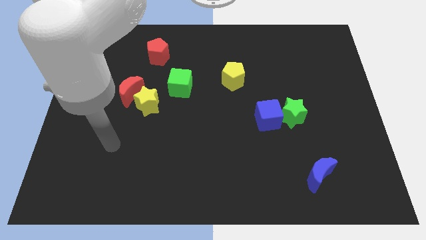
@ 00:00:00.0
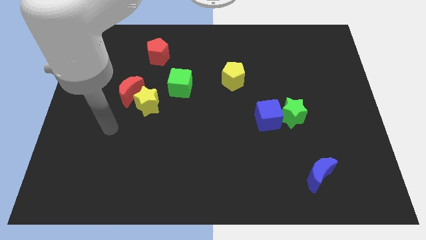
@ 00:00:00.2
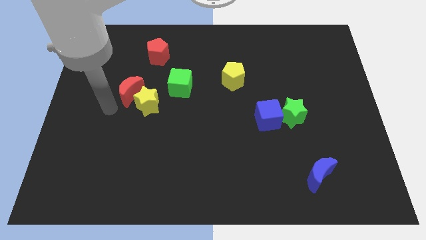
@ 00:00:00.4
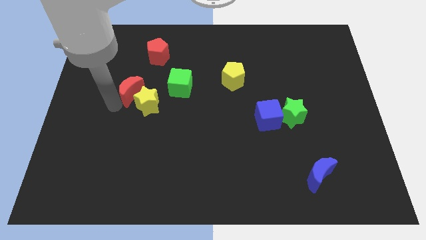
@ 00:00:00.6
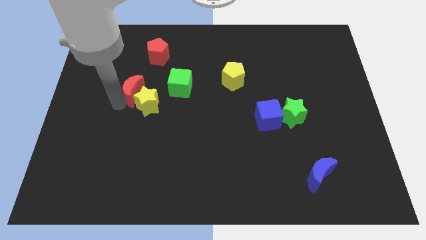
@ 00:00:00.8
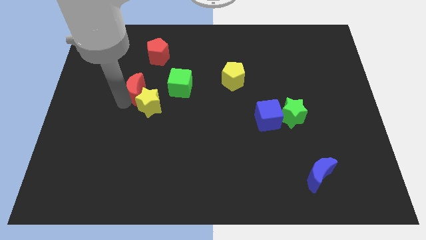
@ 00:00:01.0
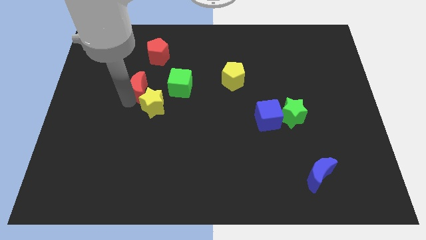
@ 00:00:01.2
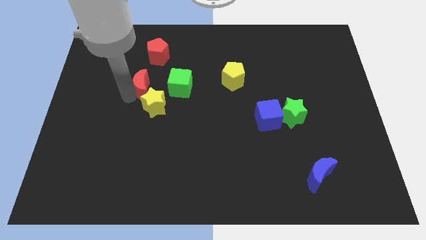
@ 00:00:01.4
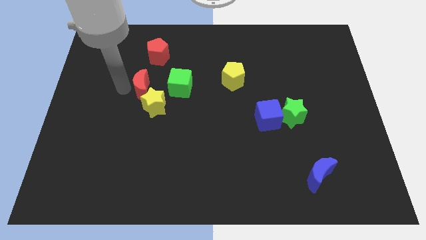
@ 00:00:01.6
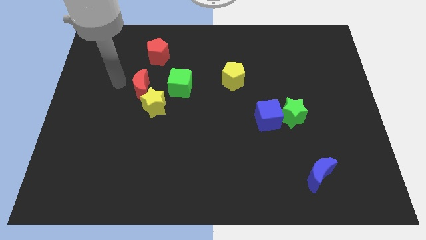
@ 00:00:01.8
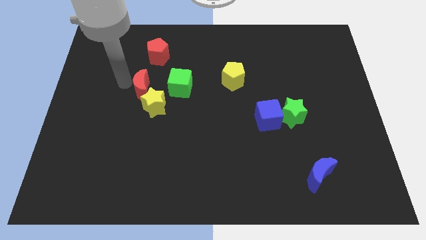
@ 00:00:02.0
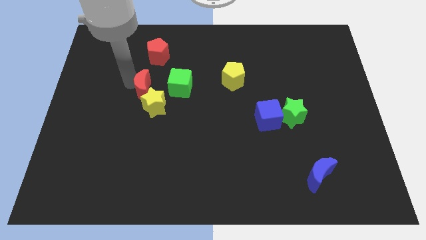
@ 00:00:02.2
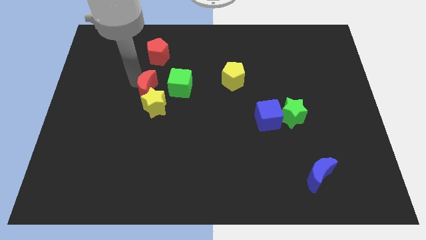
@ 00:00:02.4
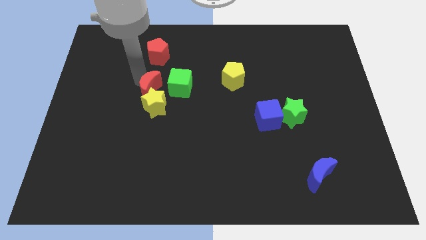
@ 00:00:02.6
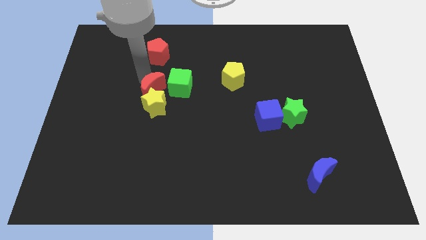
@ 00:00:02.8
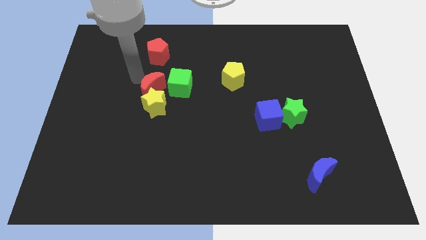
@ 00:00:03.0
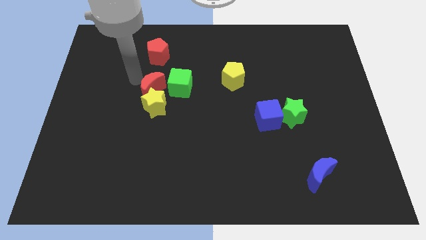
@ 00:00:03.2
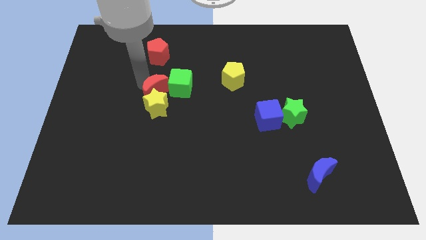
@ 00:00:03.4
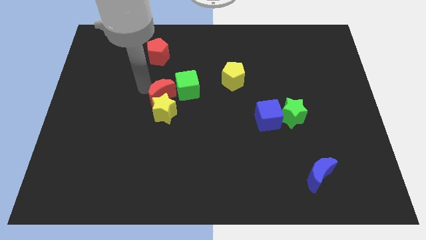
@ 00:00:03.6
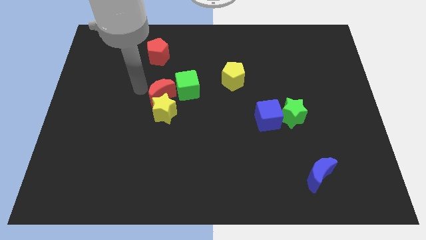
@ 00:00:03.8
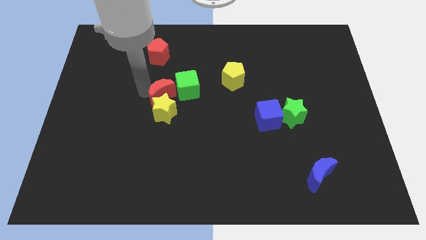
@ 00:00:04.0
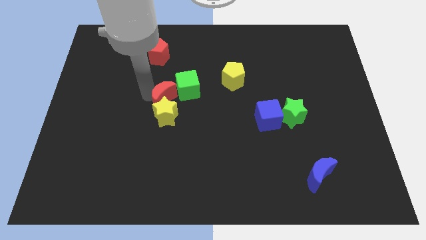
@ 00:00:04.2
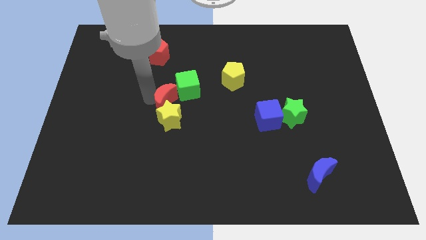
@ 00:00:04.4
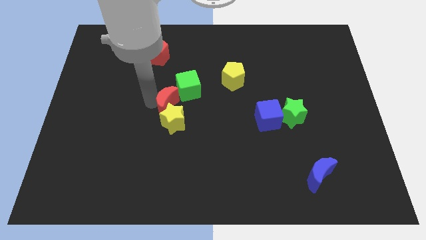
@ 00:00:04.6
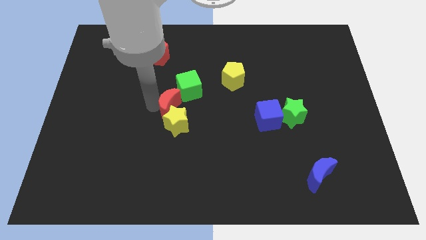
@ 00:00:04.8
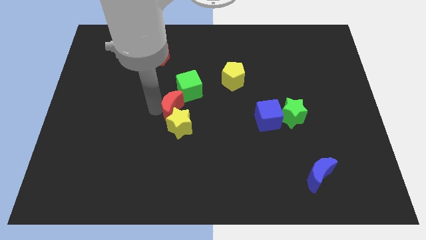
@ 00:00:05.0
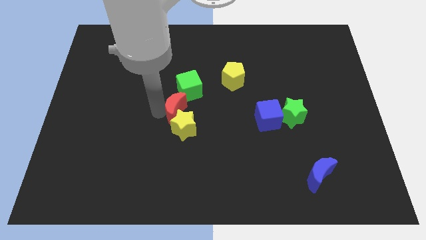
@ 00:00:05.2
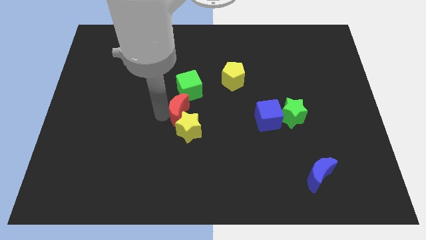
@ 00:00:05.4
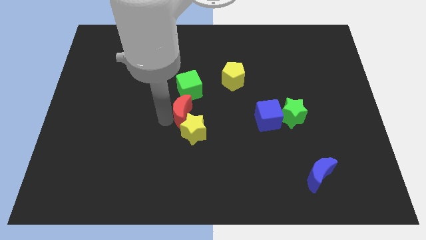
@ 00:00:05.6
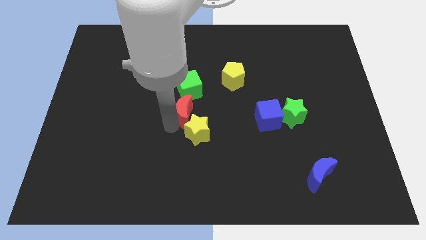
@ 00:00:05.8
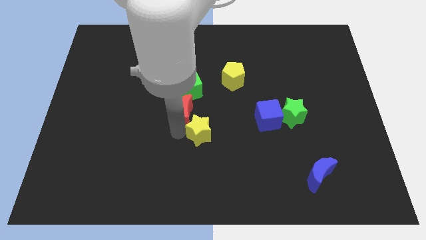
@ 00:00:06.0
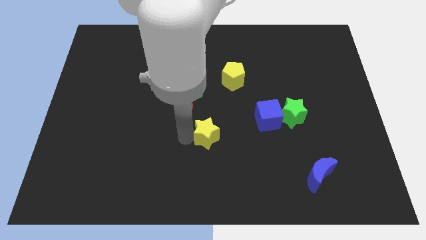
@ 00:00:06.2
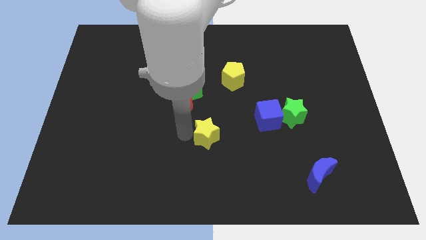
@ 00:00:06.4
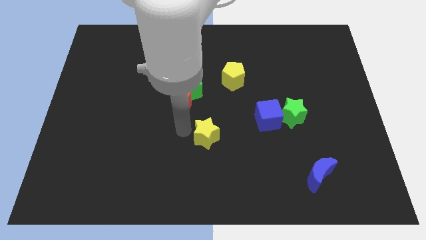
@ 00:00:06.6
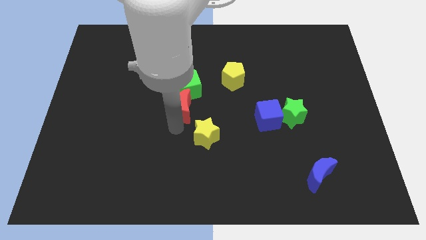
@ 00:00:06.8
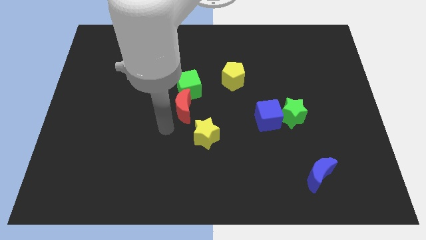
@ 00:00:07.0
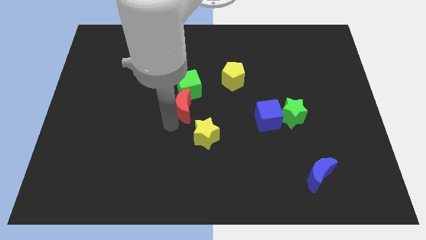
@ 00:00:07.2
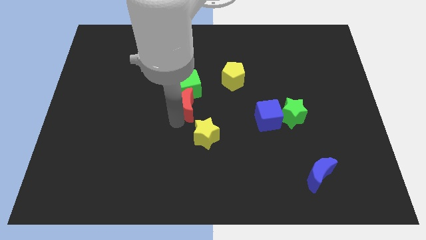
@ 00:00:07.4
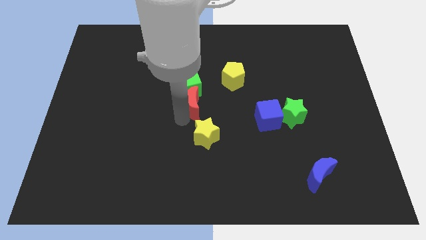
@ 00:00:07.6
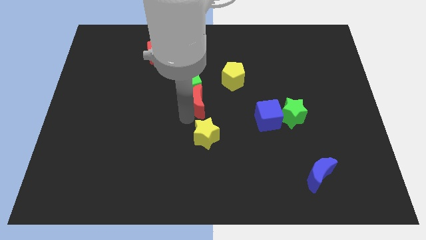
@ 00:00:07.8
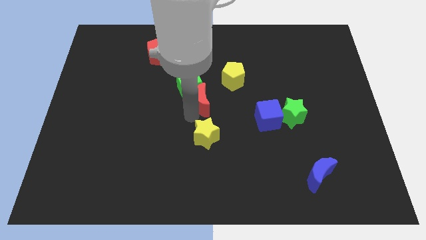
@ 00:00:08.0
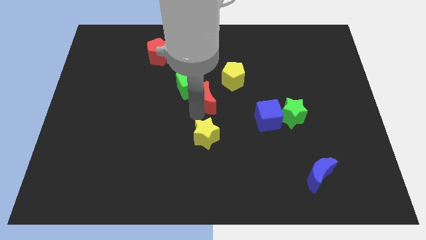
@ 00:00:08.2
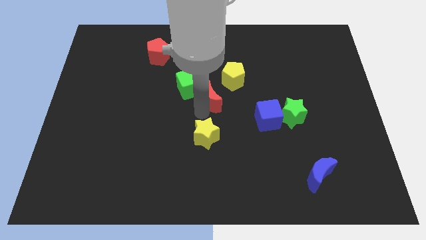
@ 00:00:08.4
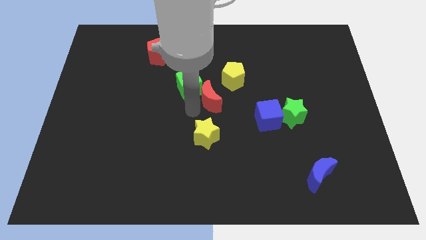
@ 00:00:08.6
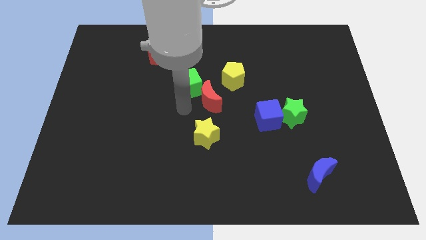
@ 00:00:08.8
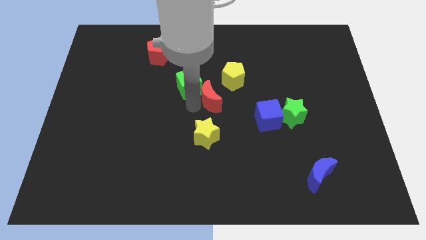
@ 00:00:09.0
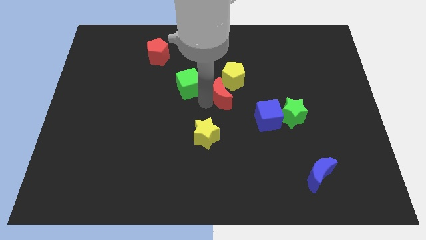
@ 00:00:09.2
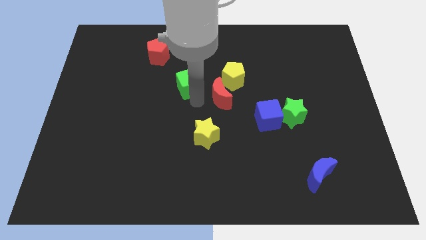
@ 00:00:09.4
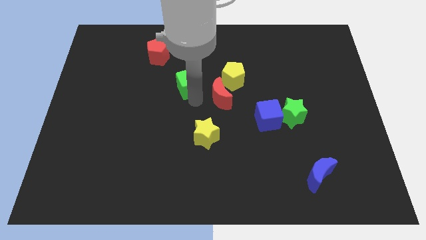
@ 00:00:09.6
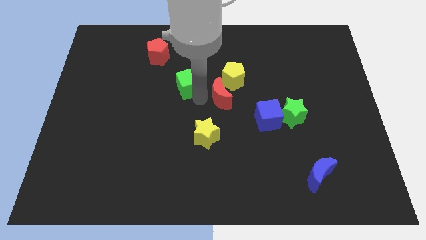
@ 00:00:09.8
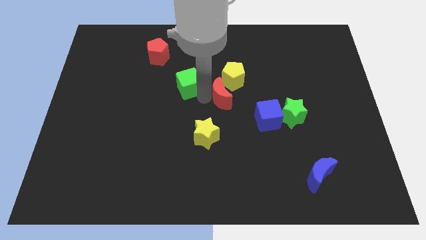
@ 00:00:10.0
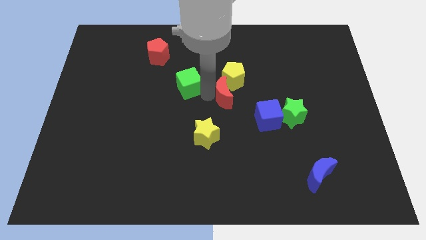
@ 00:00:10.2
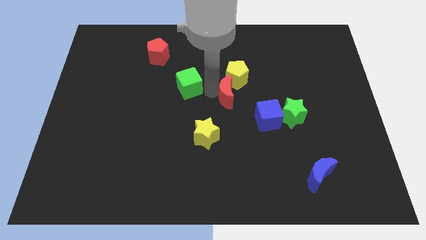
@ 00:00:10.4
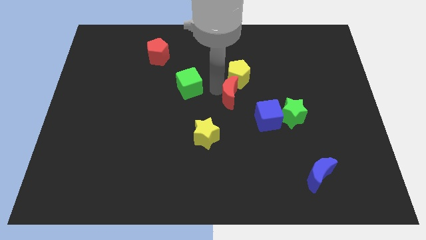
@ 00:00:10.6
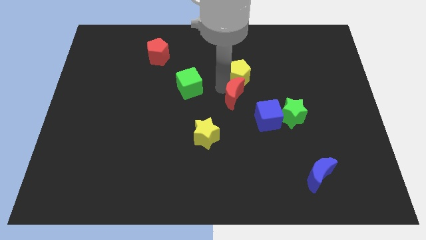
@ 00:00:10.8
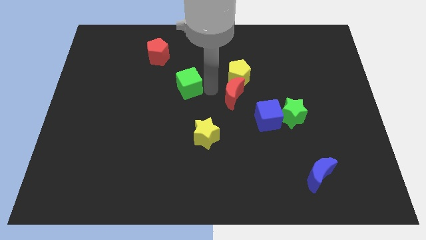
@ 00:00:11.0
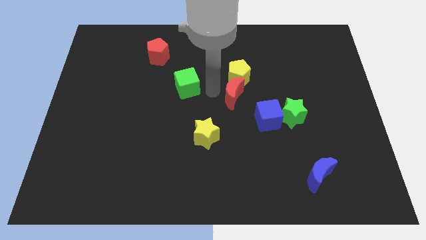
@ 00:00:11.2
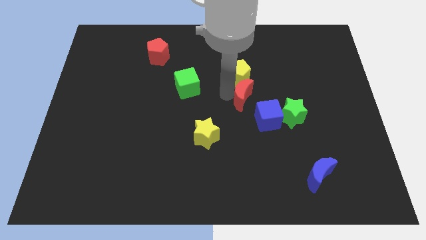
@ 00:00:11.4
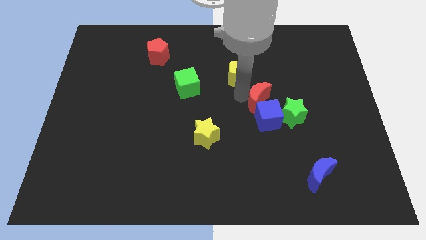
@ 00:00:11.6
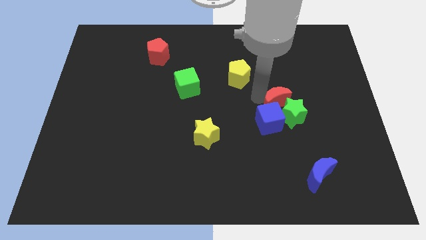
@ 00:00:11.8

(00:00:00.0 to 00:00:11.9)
push the red moon towards the green star

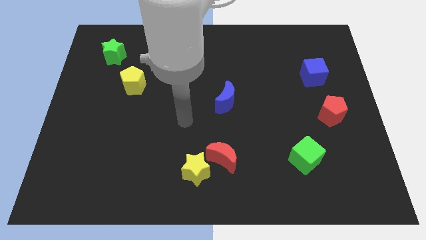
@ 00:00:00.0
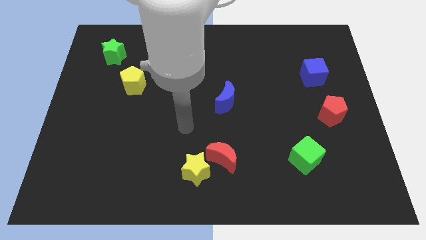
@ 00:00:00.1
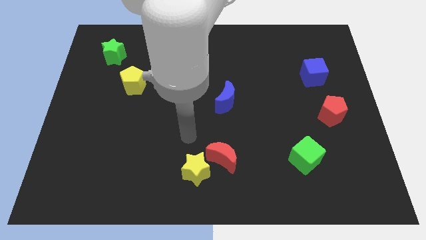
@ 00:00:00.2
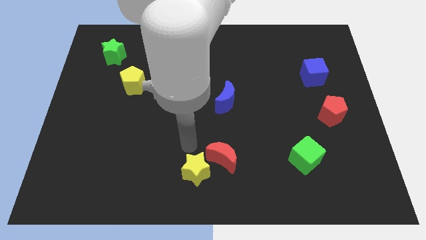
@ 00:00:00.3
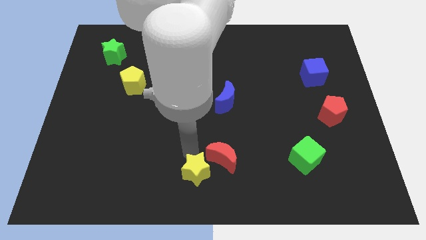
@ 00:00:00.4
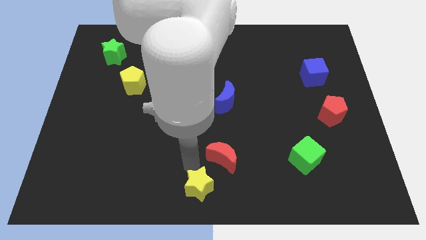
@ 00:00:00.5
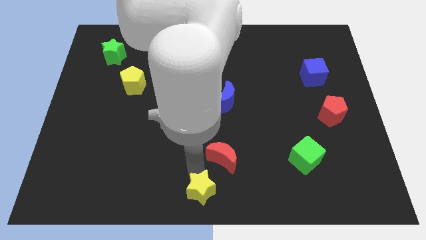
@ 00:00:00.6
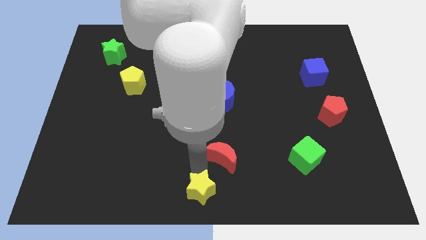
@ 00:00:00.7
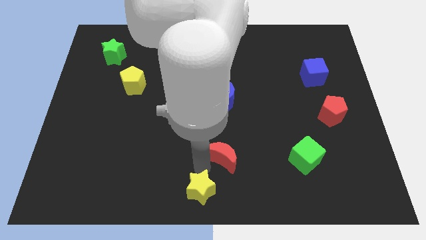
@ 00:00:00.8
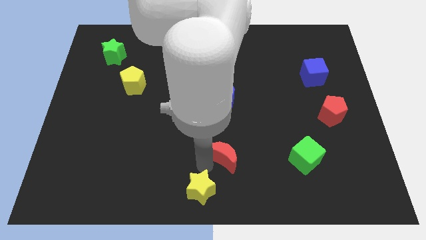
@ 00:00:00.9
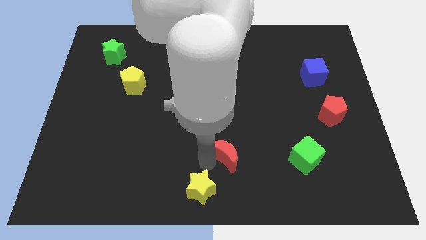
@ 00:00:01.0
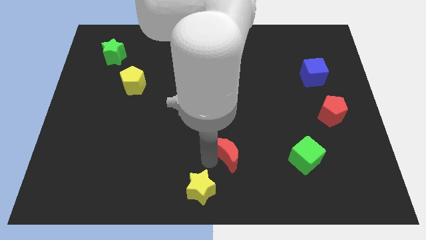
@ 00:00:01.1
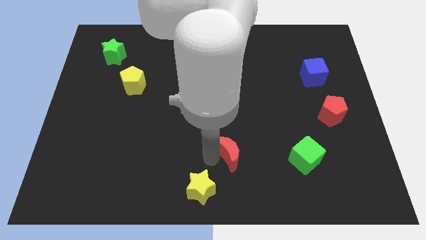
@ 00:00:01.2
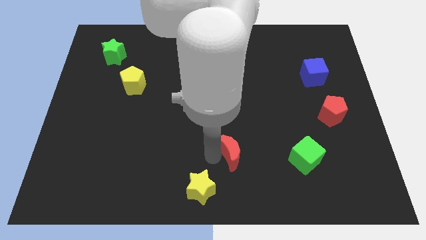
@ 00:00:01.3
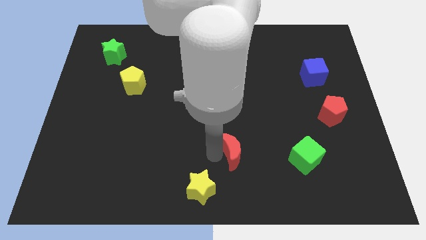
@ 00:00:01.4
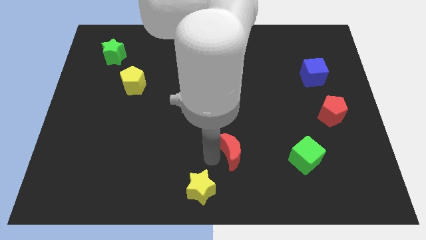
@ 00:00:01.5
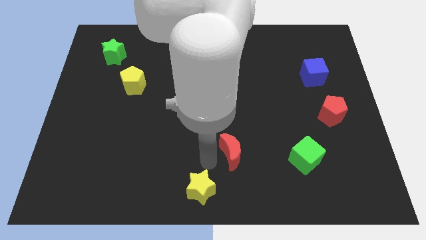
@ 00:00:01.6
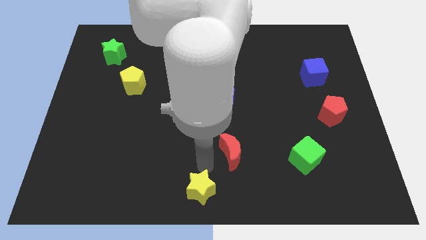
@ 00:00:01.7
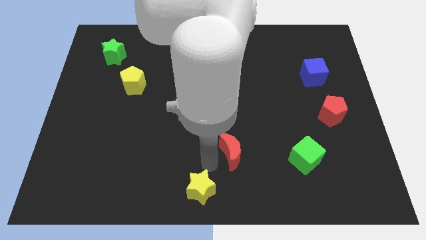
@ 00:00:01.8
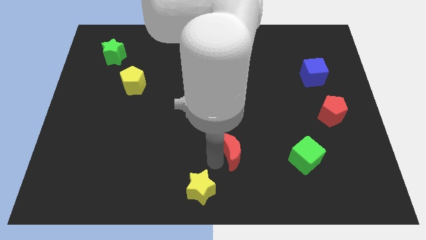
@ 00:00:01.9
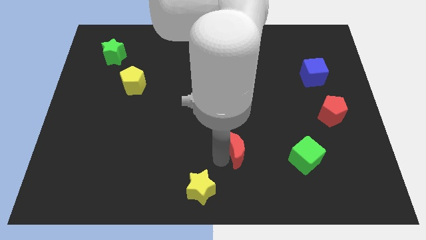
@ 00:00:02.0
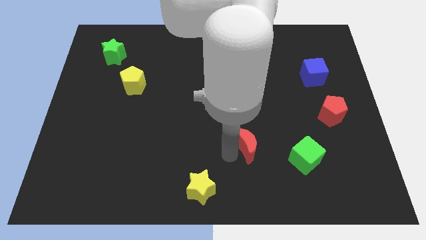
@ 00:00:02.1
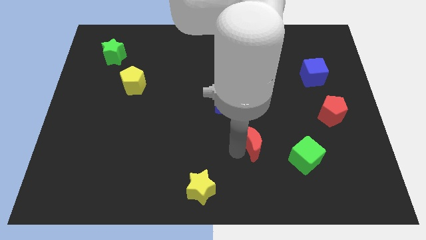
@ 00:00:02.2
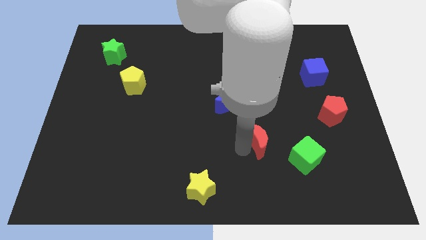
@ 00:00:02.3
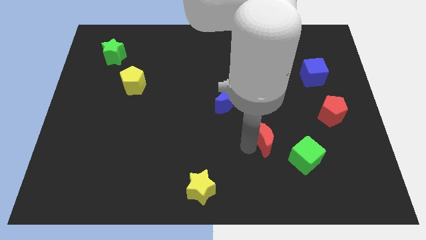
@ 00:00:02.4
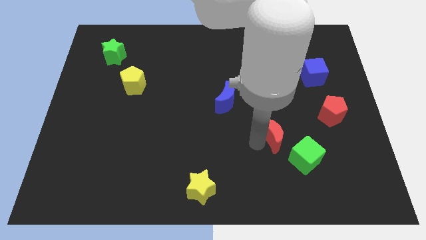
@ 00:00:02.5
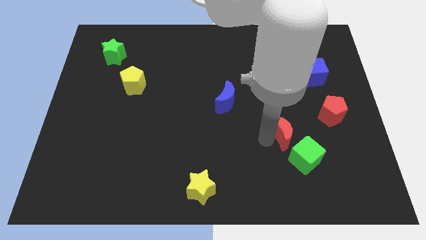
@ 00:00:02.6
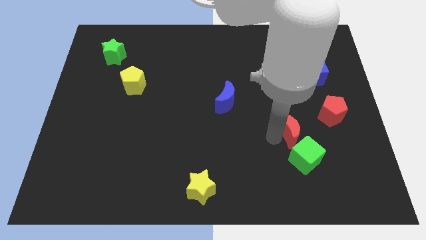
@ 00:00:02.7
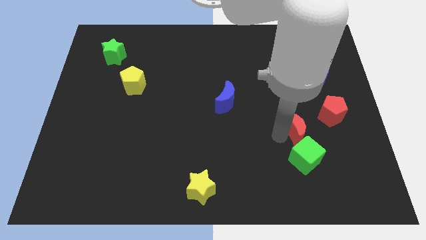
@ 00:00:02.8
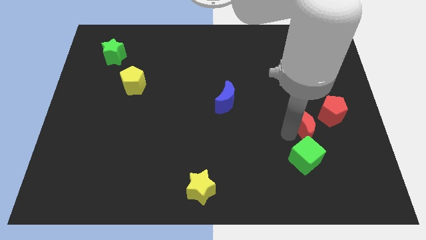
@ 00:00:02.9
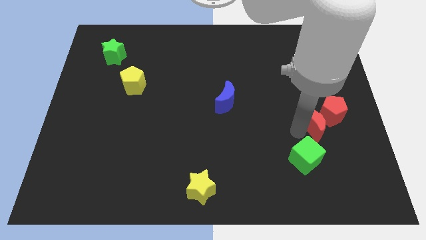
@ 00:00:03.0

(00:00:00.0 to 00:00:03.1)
move the red moon next to the red pentagon
